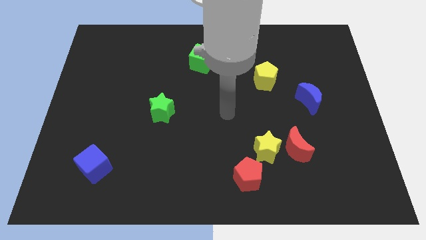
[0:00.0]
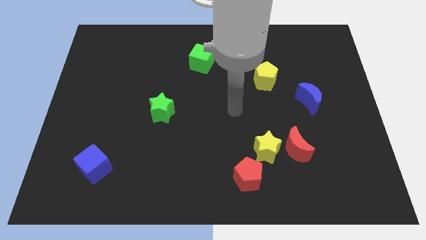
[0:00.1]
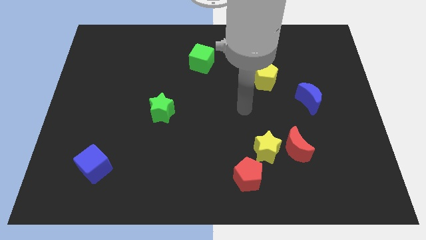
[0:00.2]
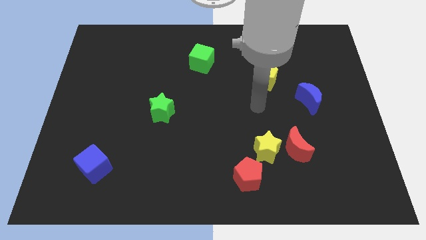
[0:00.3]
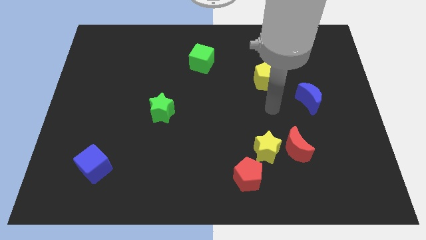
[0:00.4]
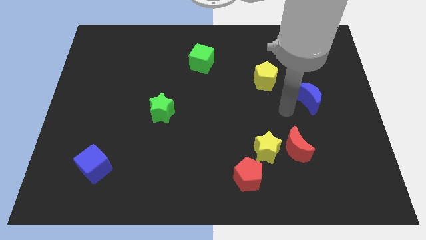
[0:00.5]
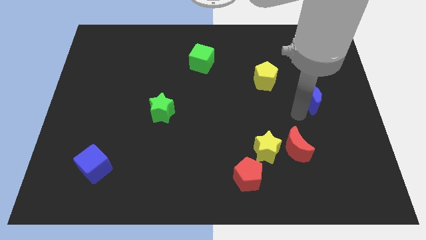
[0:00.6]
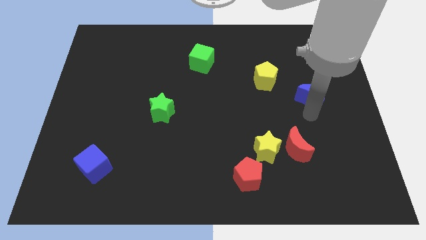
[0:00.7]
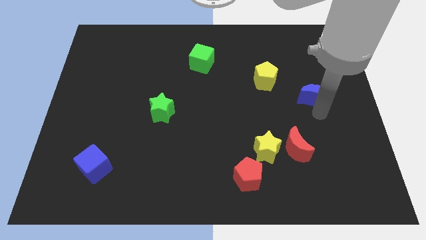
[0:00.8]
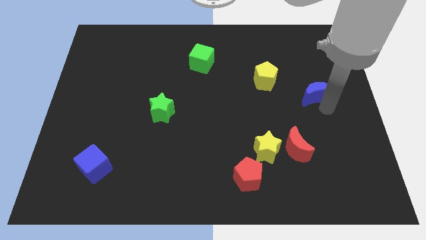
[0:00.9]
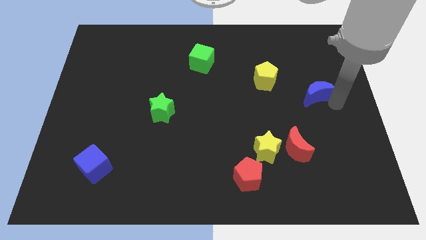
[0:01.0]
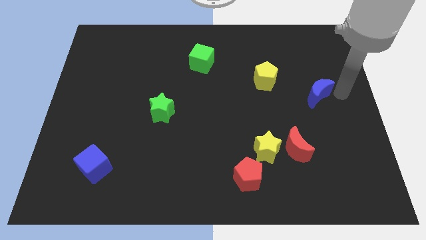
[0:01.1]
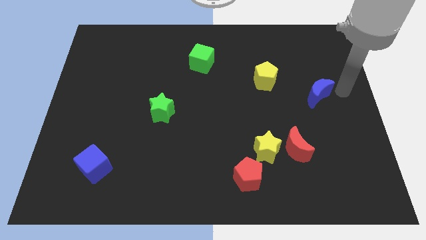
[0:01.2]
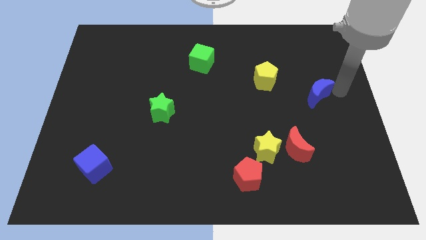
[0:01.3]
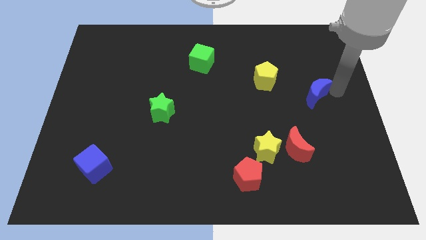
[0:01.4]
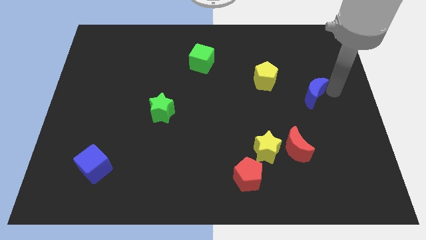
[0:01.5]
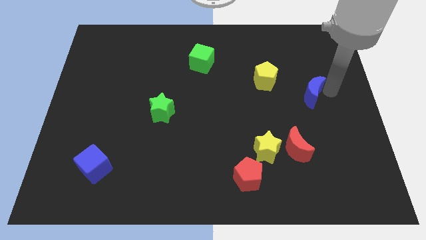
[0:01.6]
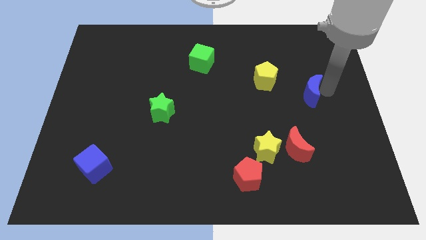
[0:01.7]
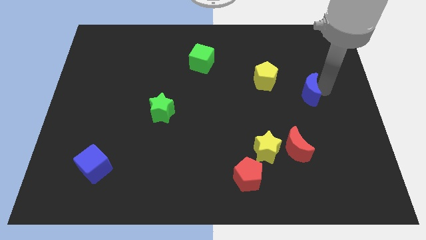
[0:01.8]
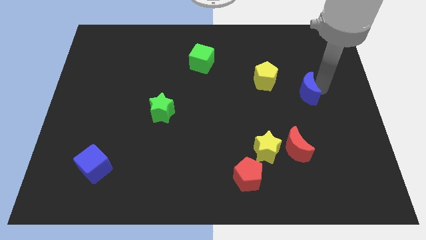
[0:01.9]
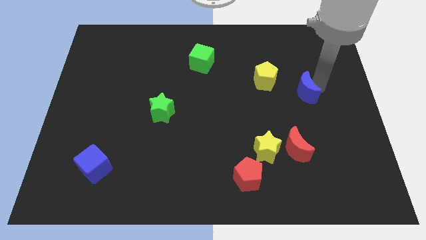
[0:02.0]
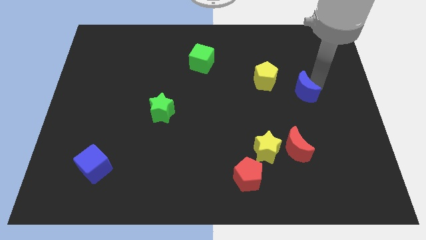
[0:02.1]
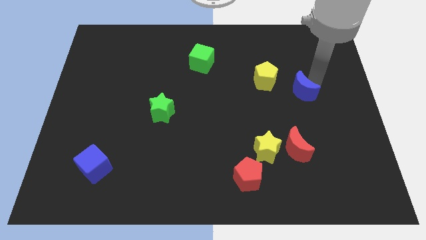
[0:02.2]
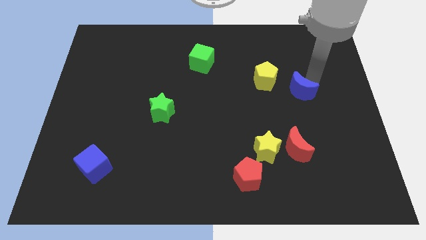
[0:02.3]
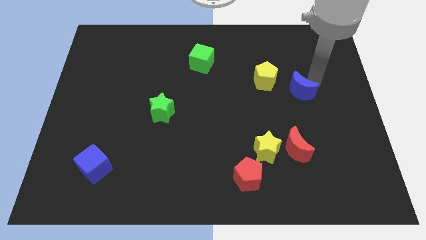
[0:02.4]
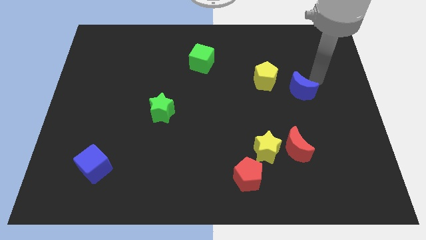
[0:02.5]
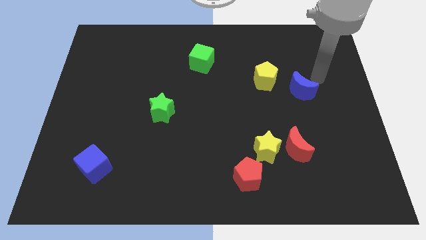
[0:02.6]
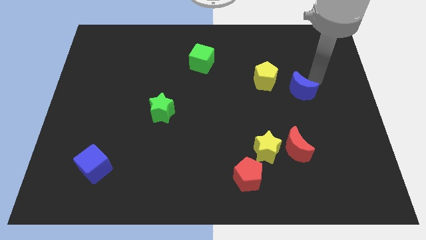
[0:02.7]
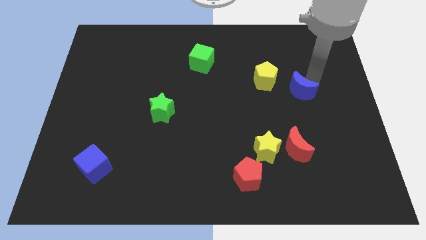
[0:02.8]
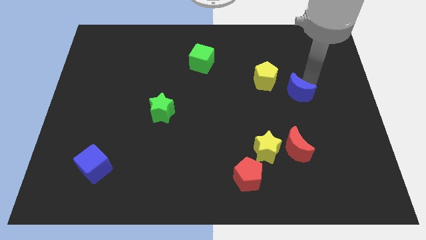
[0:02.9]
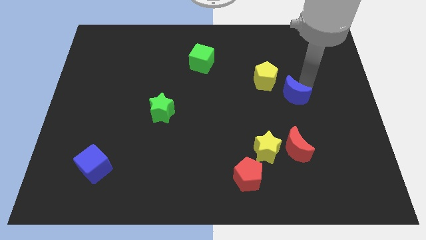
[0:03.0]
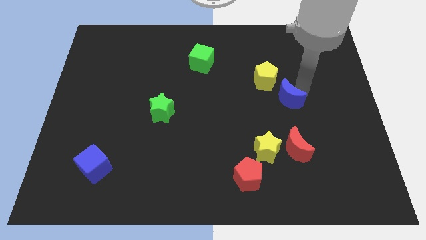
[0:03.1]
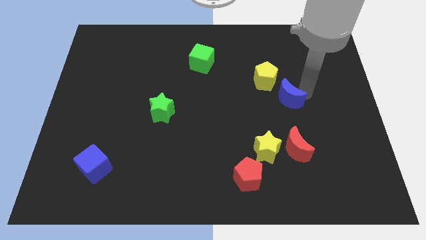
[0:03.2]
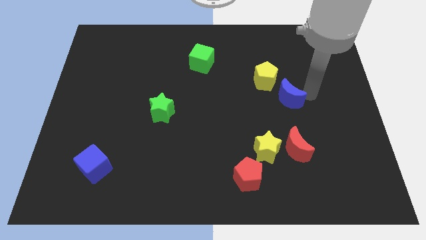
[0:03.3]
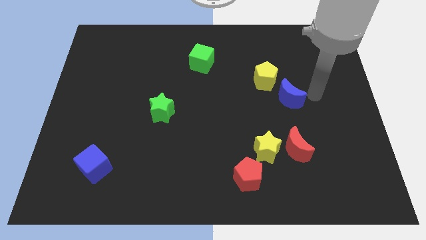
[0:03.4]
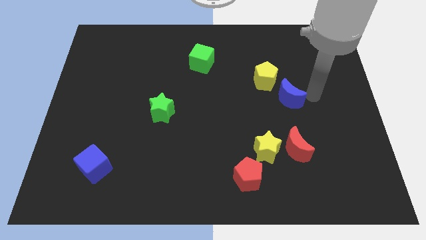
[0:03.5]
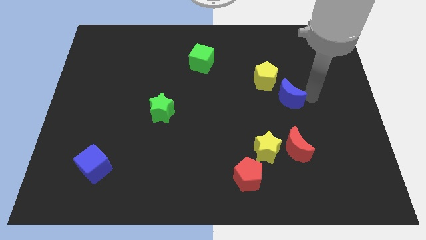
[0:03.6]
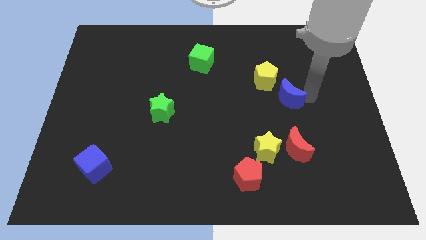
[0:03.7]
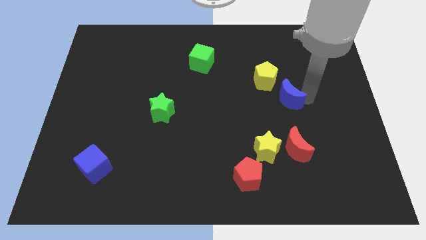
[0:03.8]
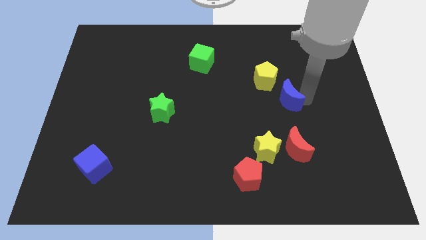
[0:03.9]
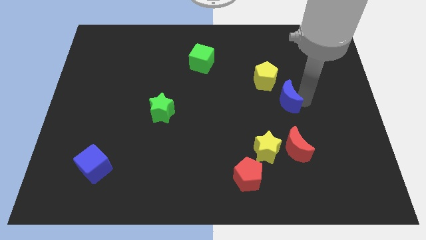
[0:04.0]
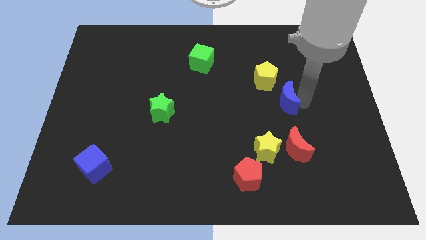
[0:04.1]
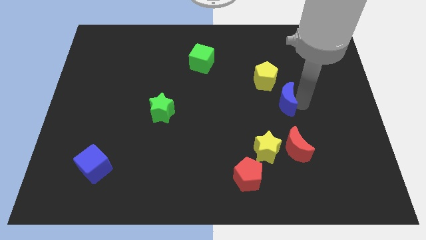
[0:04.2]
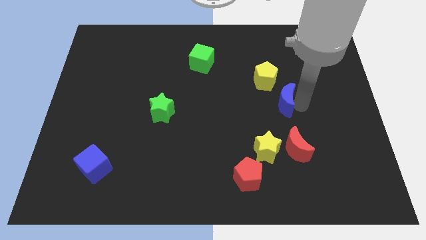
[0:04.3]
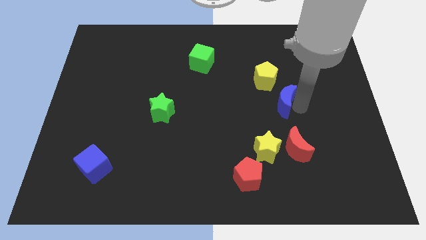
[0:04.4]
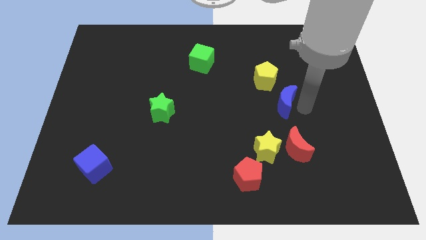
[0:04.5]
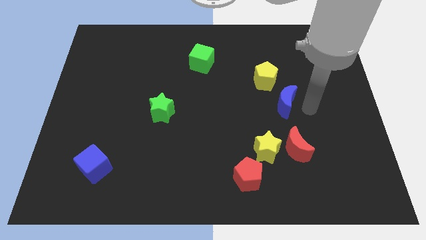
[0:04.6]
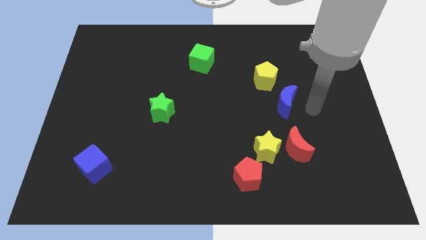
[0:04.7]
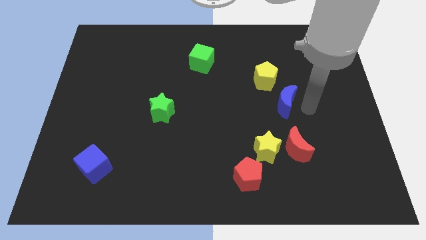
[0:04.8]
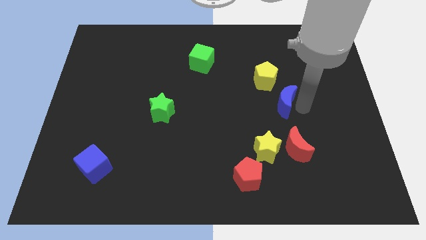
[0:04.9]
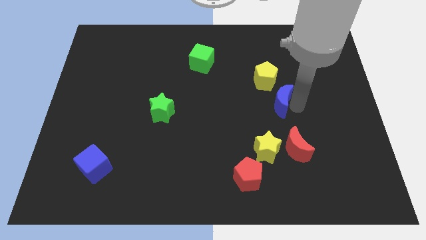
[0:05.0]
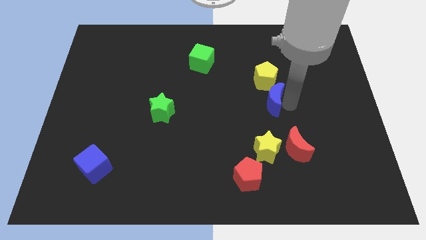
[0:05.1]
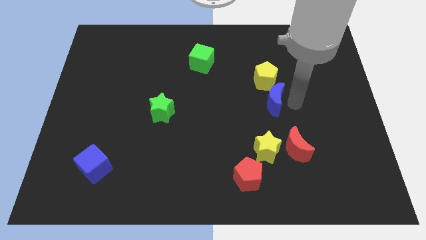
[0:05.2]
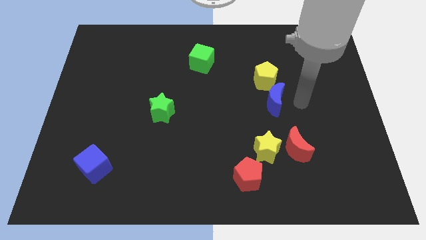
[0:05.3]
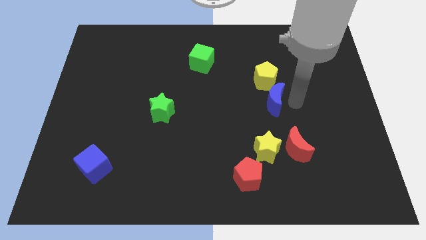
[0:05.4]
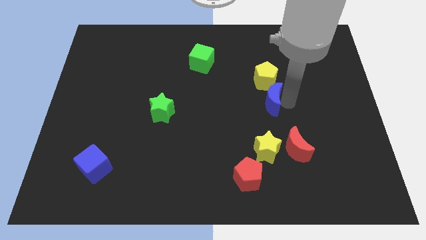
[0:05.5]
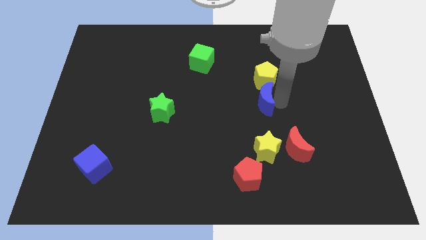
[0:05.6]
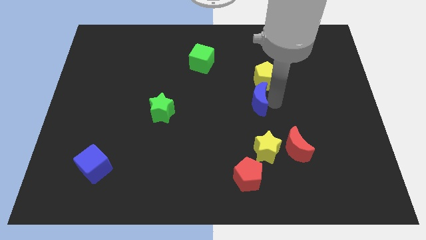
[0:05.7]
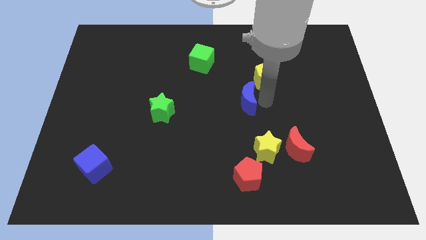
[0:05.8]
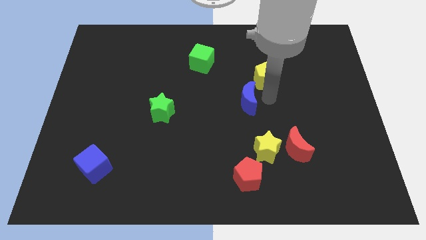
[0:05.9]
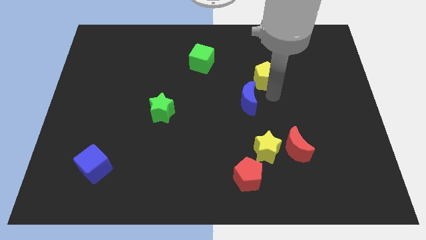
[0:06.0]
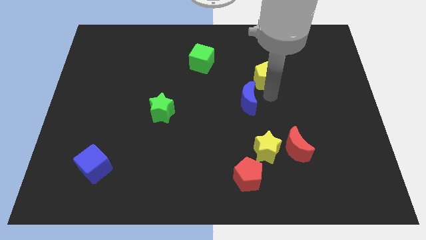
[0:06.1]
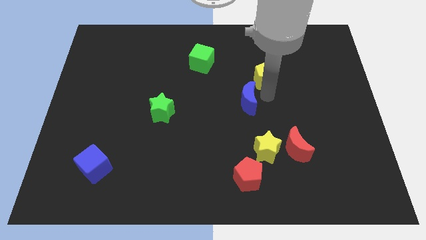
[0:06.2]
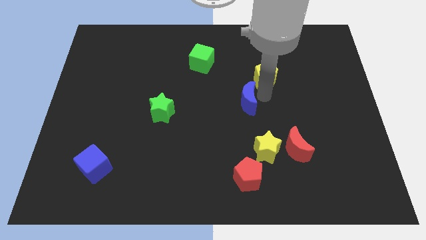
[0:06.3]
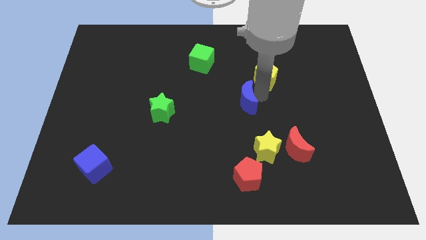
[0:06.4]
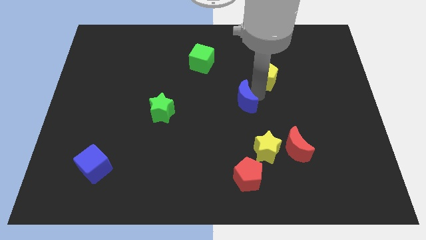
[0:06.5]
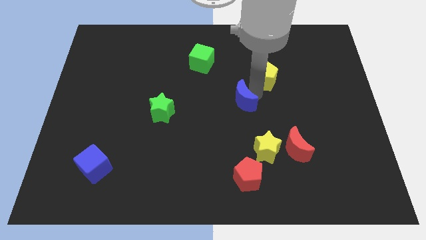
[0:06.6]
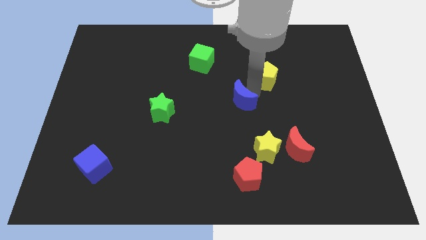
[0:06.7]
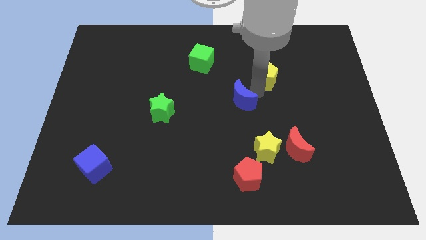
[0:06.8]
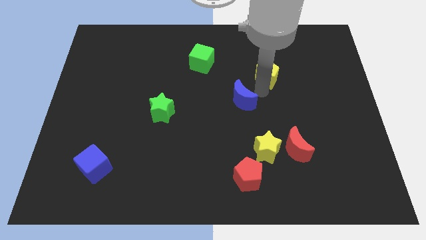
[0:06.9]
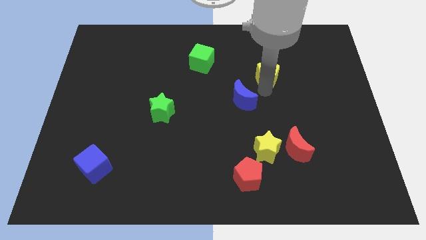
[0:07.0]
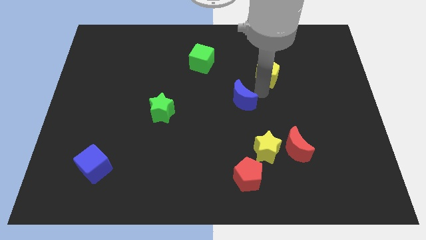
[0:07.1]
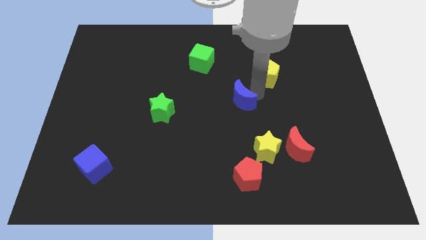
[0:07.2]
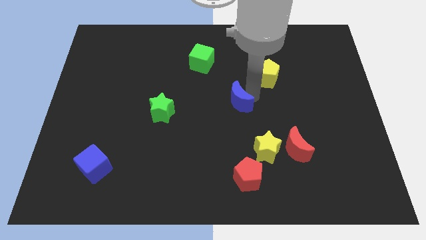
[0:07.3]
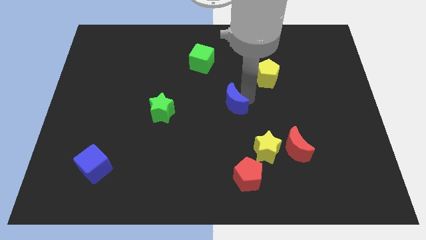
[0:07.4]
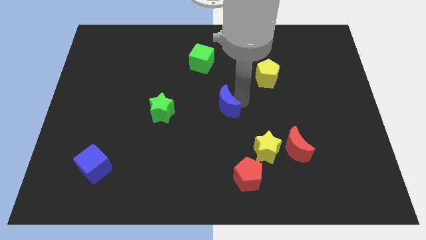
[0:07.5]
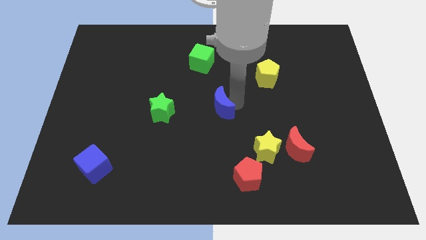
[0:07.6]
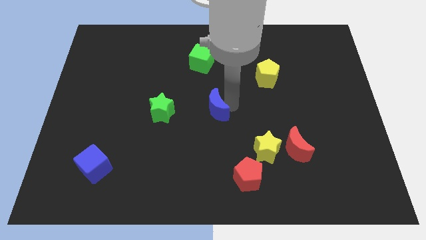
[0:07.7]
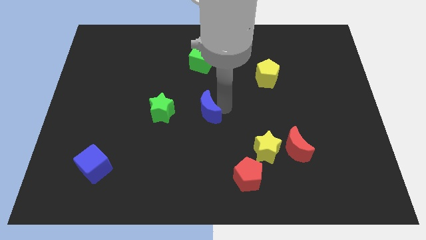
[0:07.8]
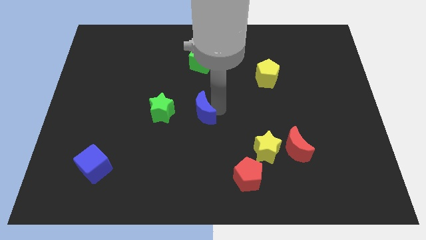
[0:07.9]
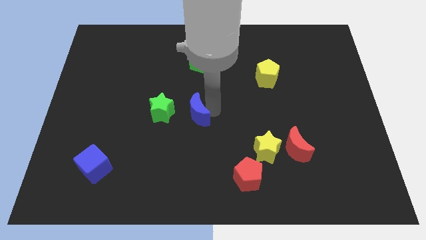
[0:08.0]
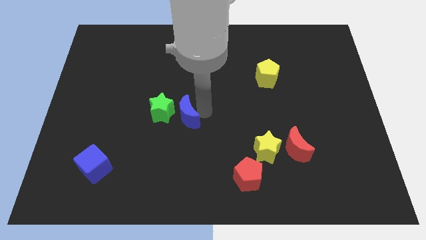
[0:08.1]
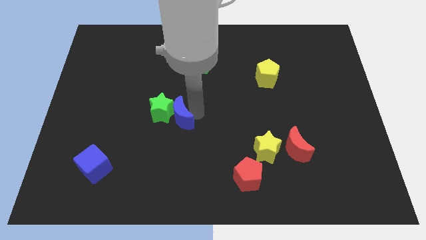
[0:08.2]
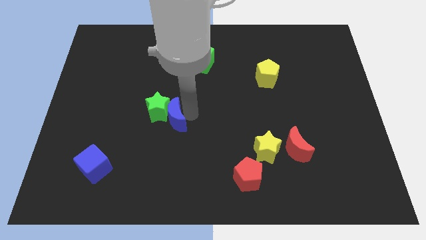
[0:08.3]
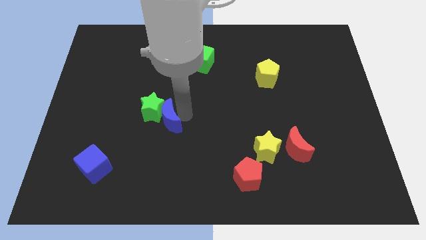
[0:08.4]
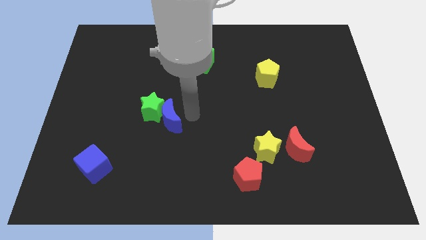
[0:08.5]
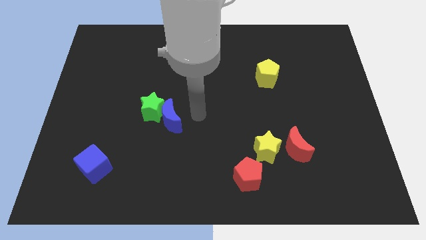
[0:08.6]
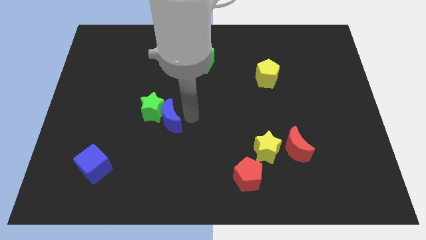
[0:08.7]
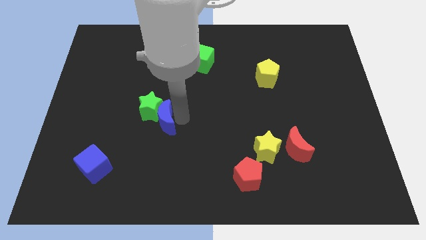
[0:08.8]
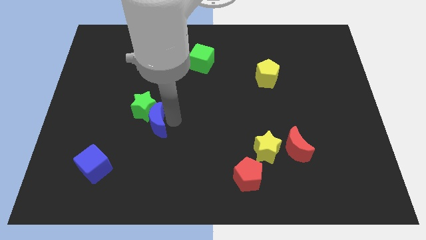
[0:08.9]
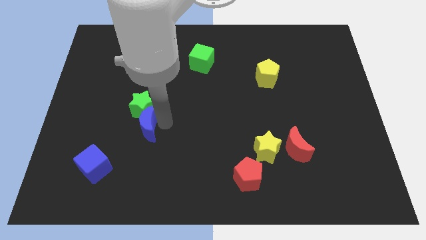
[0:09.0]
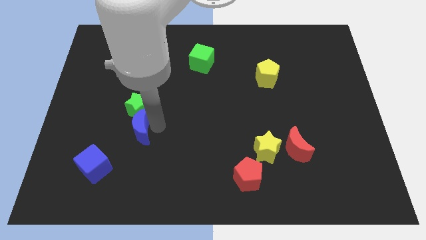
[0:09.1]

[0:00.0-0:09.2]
push the blue moon diagonally down and to the left of the green star
